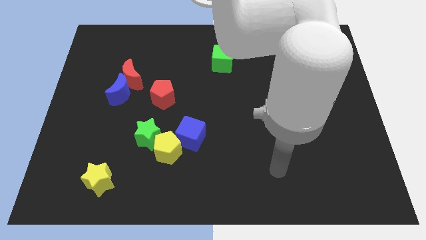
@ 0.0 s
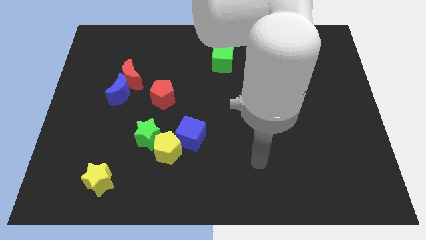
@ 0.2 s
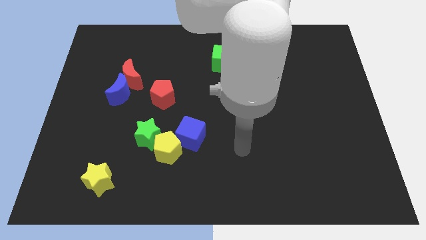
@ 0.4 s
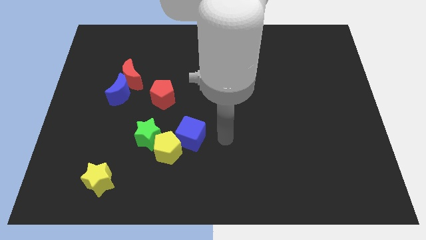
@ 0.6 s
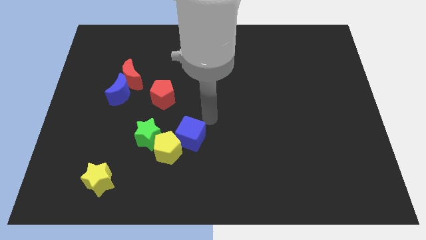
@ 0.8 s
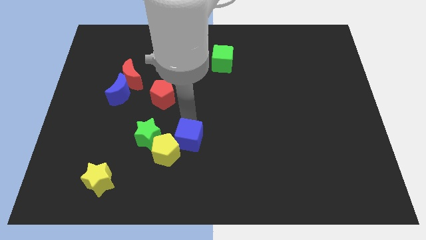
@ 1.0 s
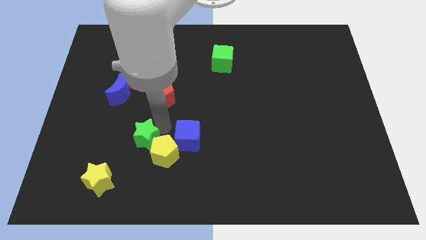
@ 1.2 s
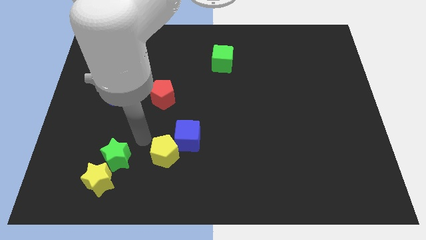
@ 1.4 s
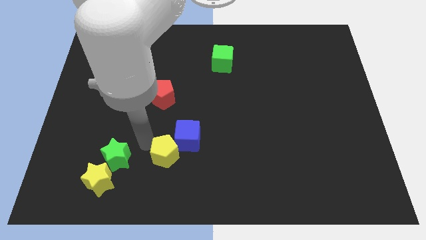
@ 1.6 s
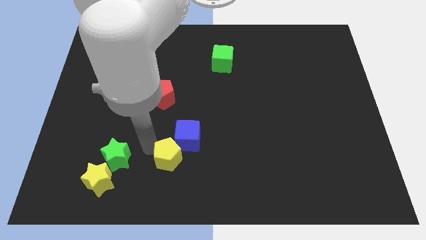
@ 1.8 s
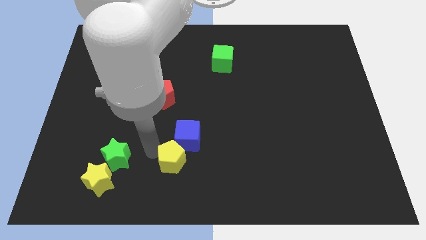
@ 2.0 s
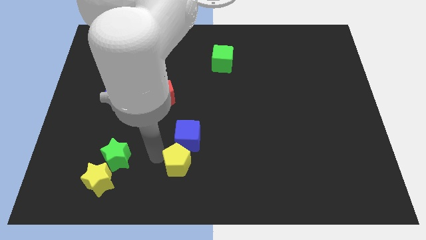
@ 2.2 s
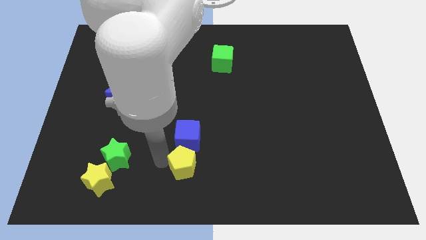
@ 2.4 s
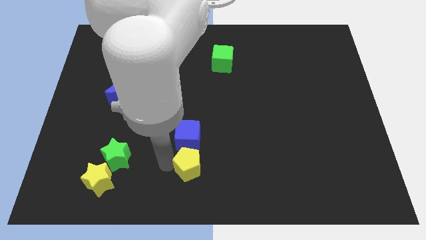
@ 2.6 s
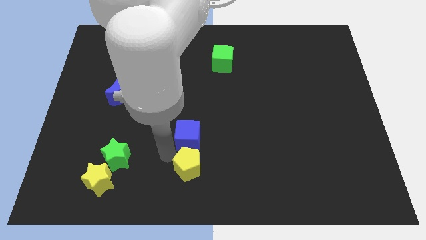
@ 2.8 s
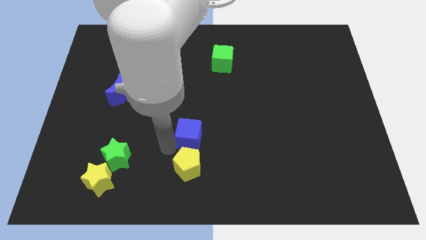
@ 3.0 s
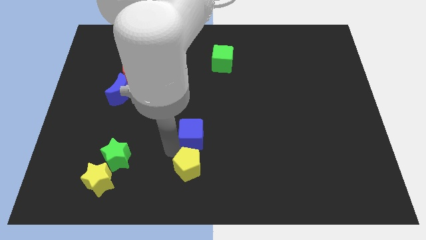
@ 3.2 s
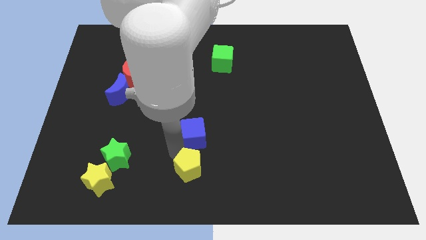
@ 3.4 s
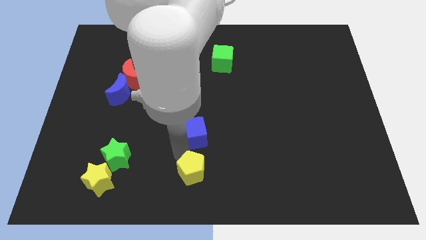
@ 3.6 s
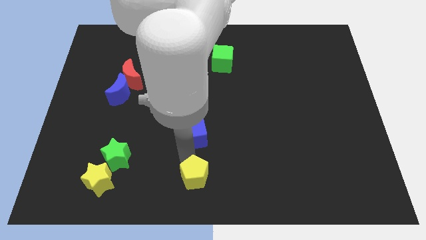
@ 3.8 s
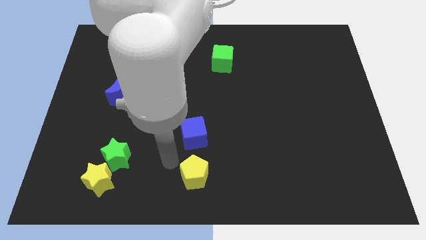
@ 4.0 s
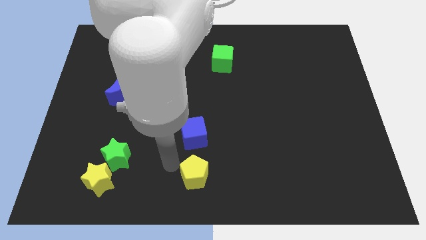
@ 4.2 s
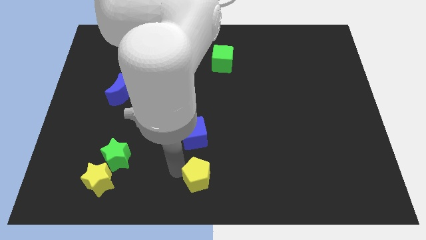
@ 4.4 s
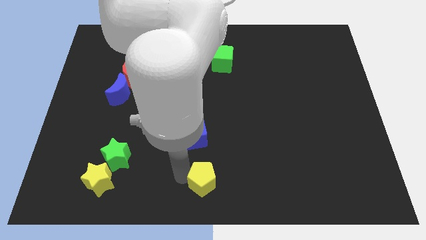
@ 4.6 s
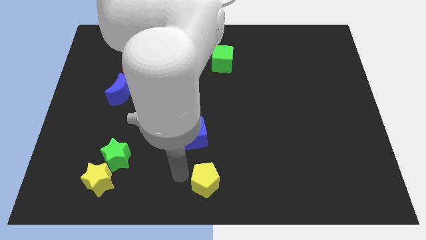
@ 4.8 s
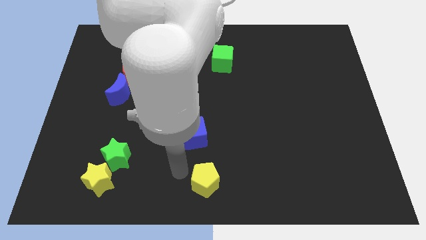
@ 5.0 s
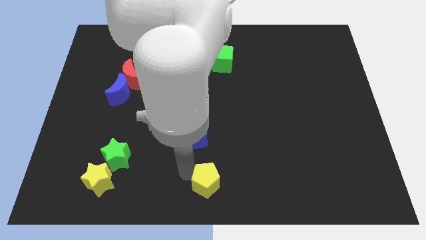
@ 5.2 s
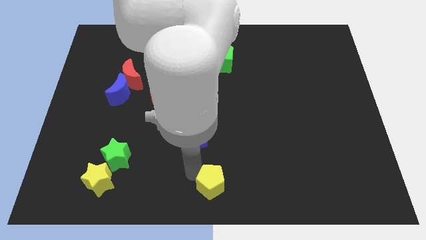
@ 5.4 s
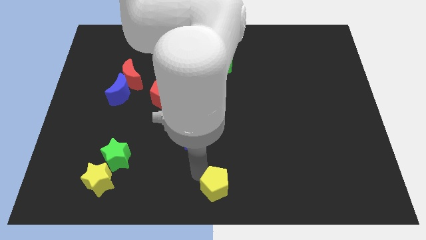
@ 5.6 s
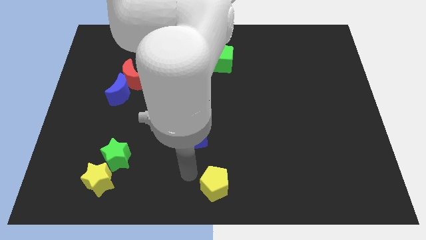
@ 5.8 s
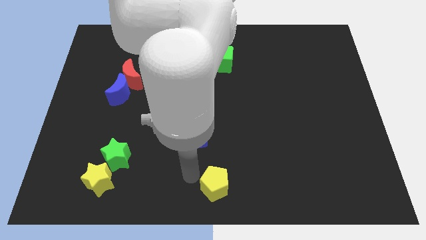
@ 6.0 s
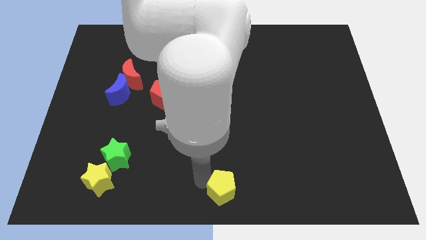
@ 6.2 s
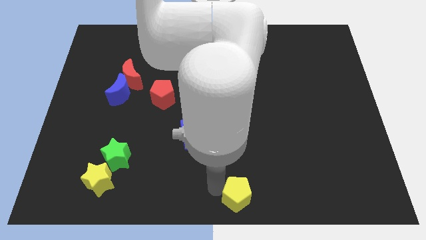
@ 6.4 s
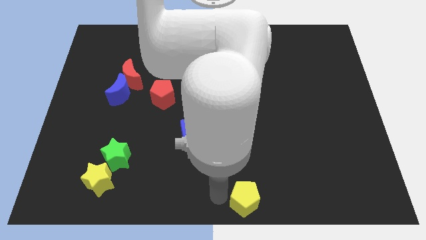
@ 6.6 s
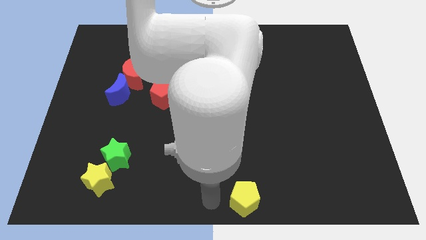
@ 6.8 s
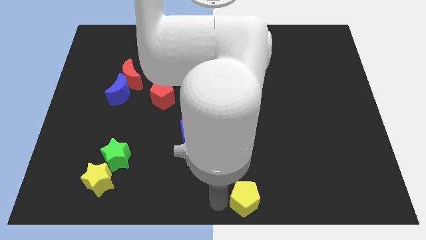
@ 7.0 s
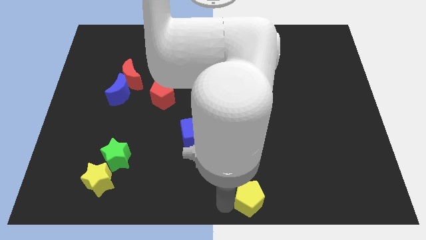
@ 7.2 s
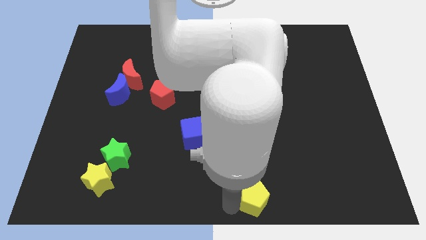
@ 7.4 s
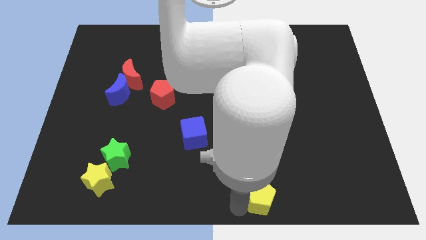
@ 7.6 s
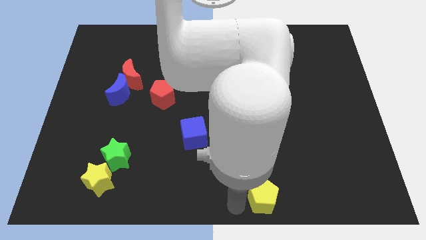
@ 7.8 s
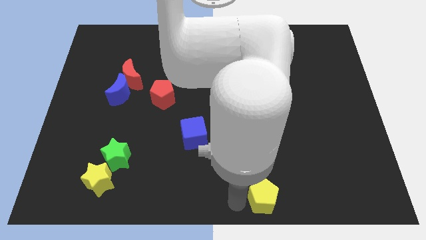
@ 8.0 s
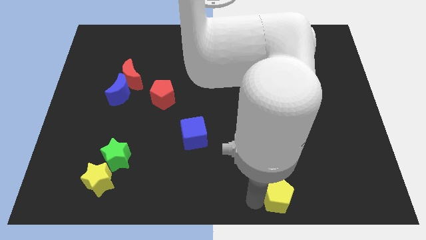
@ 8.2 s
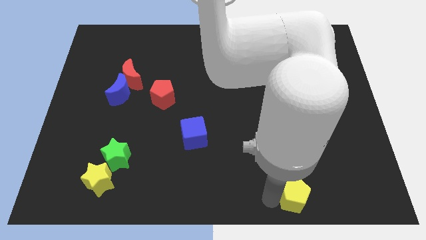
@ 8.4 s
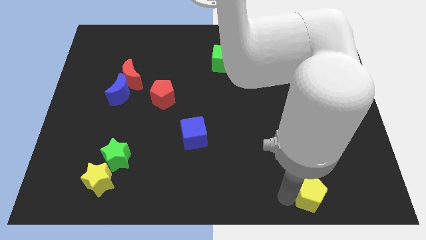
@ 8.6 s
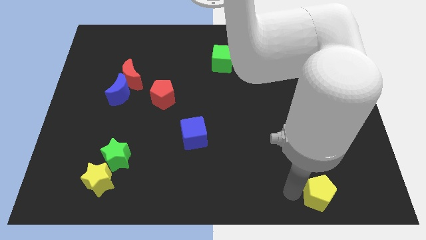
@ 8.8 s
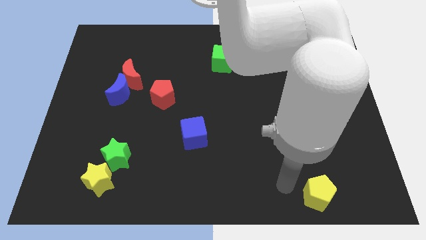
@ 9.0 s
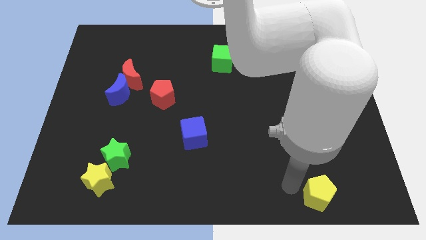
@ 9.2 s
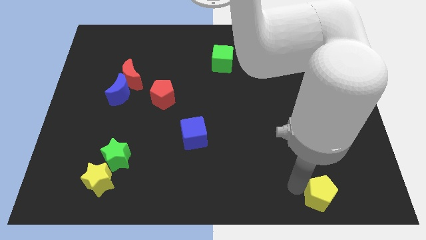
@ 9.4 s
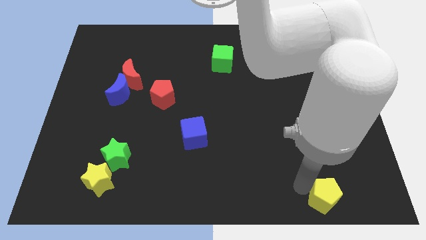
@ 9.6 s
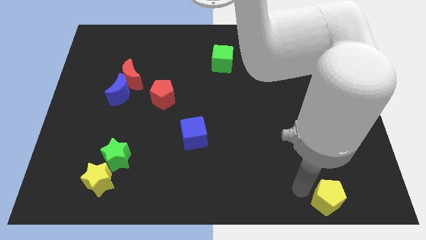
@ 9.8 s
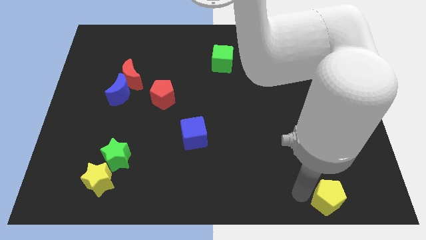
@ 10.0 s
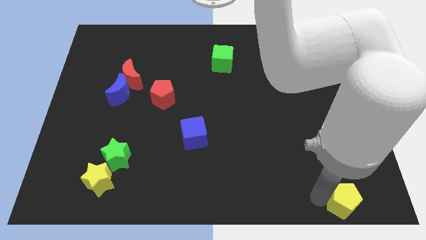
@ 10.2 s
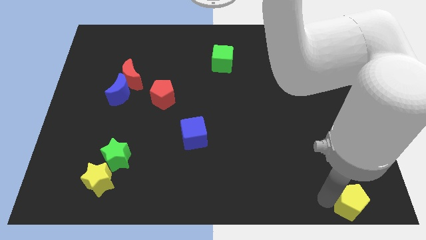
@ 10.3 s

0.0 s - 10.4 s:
put the yellow pentagon to the lower right corner
